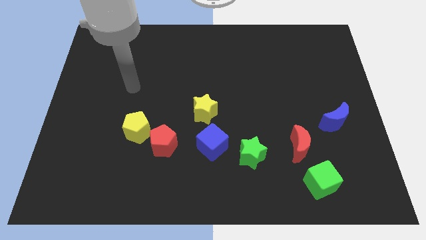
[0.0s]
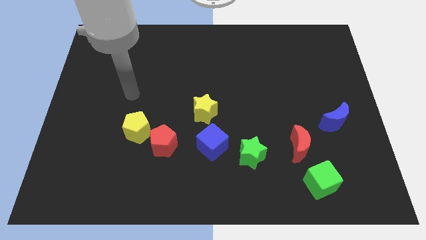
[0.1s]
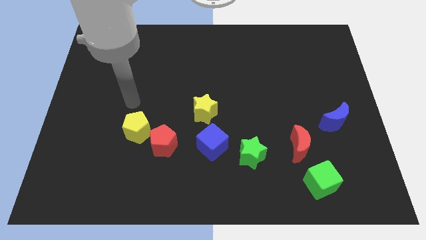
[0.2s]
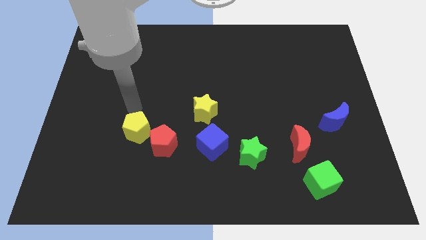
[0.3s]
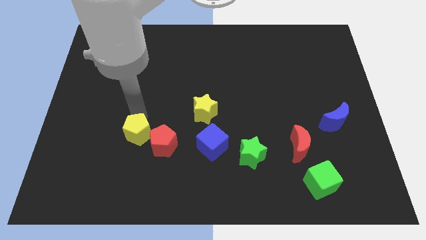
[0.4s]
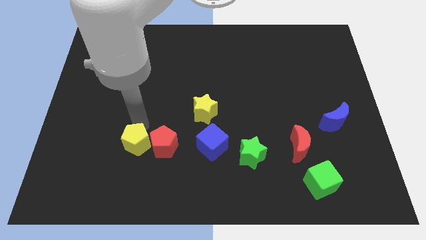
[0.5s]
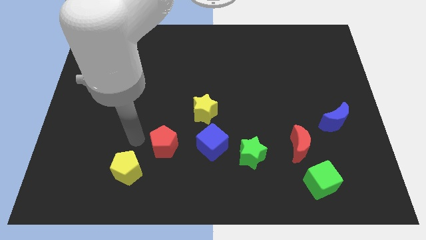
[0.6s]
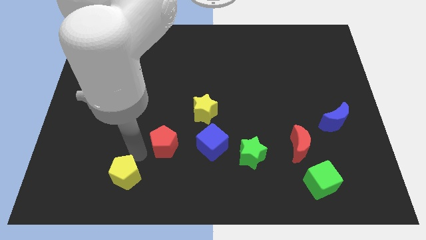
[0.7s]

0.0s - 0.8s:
separate the red pentagon from the yellow pentagon

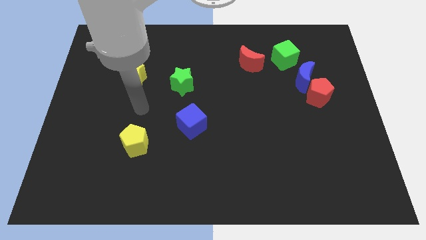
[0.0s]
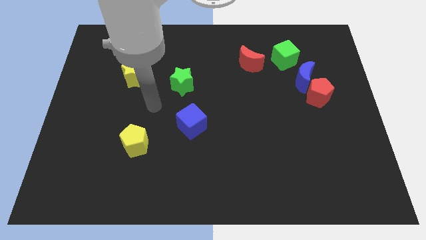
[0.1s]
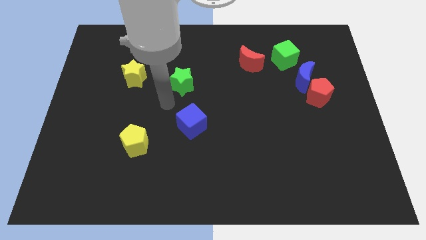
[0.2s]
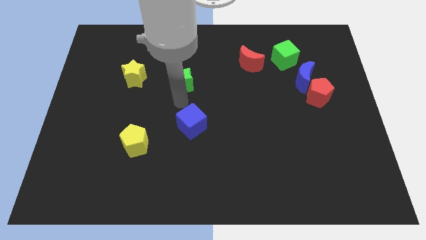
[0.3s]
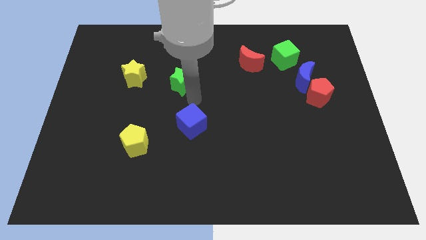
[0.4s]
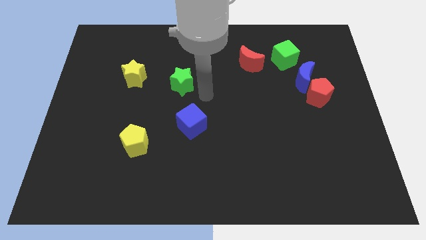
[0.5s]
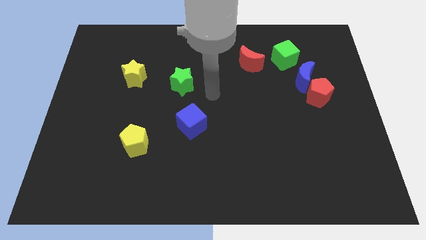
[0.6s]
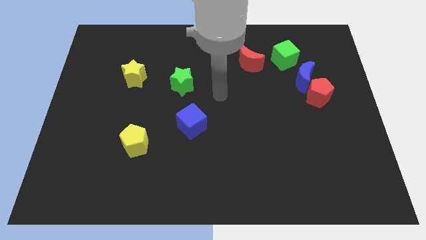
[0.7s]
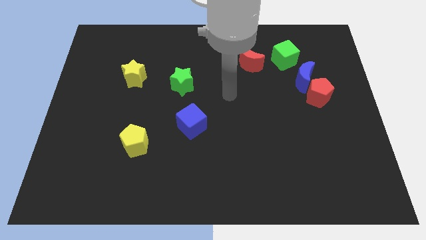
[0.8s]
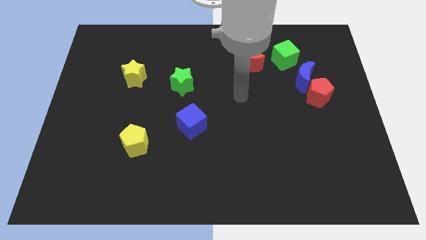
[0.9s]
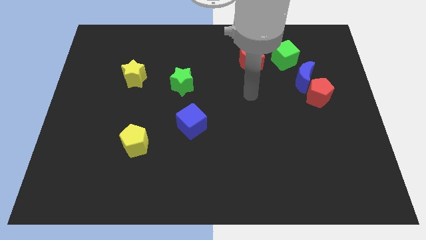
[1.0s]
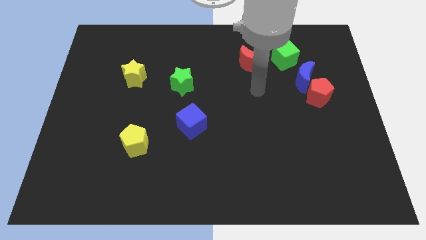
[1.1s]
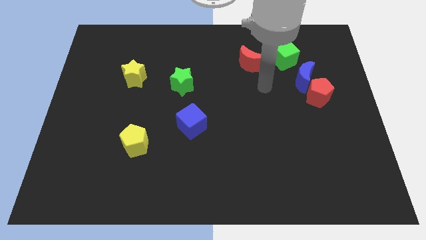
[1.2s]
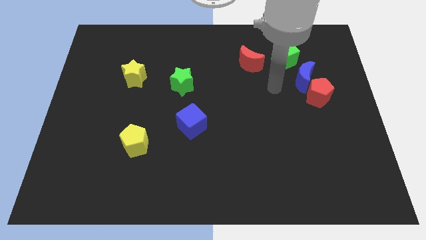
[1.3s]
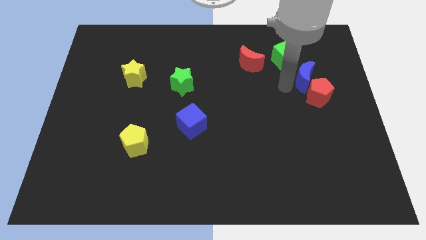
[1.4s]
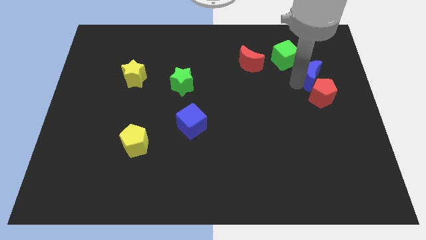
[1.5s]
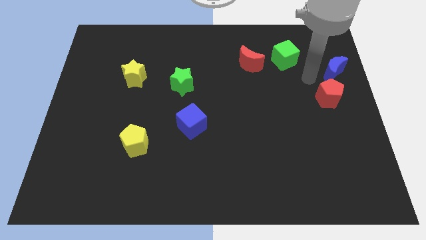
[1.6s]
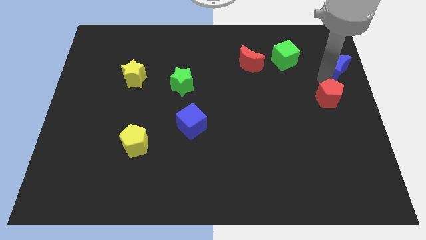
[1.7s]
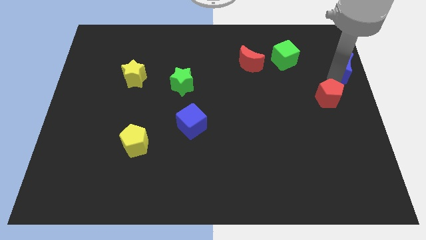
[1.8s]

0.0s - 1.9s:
pull the red pentagon apart from the blue moon

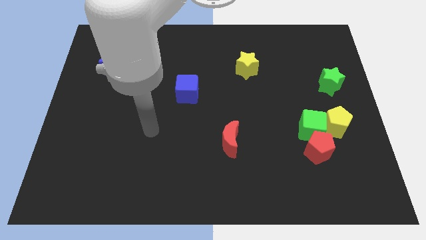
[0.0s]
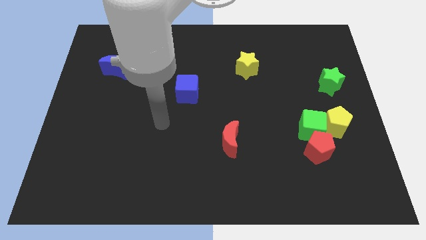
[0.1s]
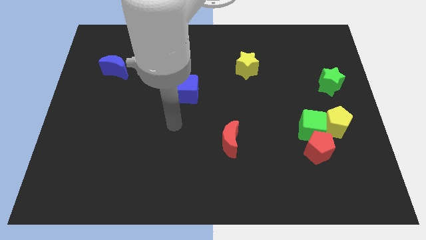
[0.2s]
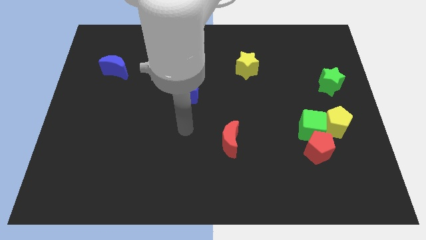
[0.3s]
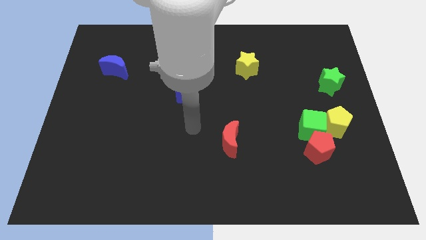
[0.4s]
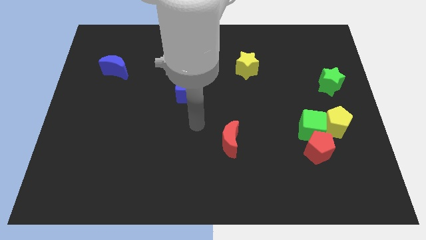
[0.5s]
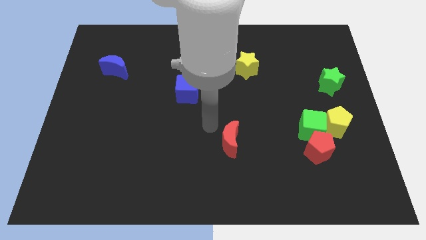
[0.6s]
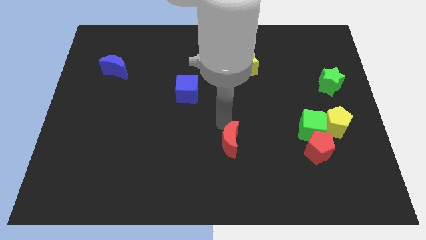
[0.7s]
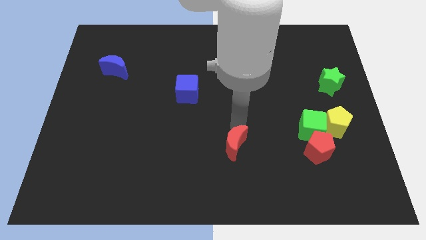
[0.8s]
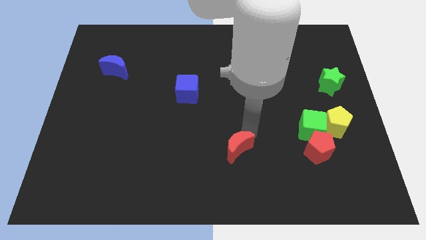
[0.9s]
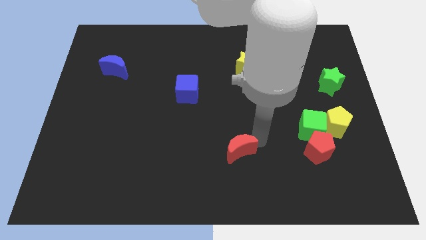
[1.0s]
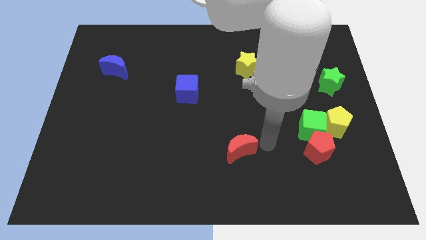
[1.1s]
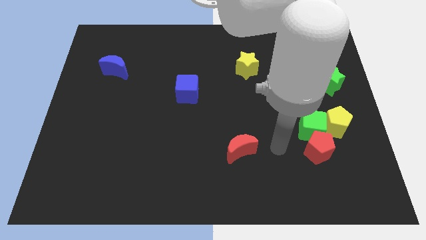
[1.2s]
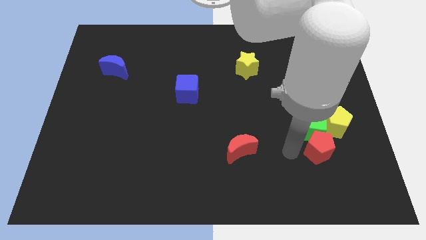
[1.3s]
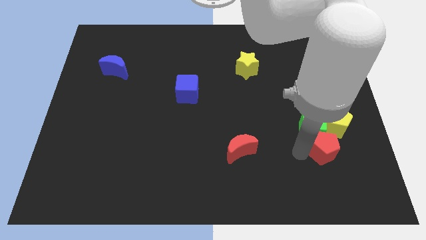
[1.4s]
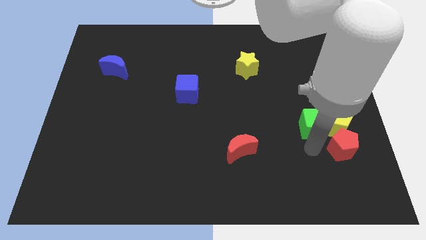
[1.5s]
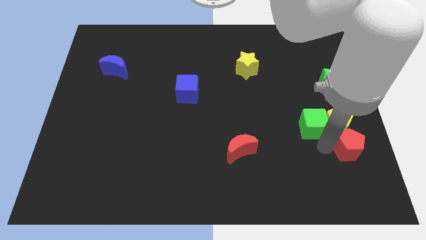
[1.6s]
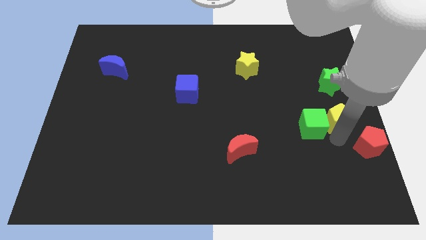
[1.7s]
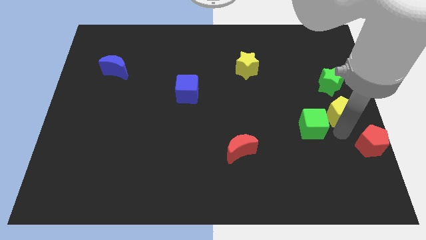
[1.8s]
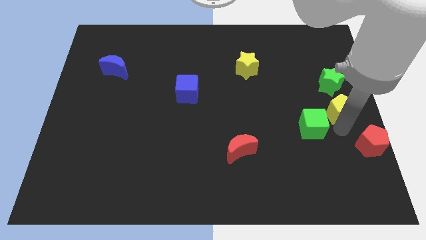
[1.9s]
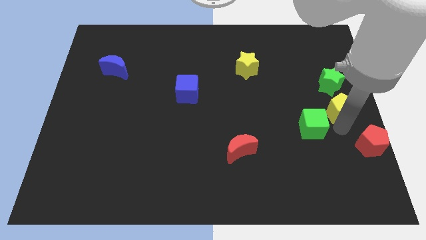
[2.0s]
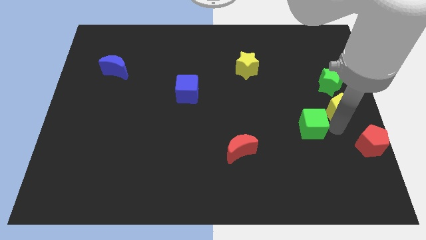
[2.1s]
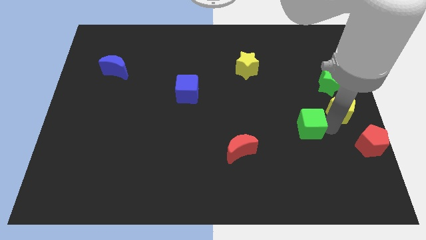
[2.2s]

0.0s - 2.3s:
separate the green cube from the red pentagon and yellow pentagon

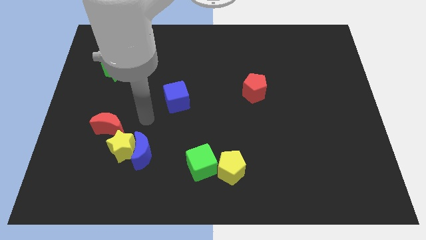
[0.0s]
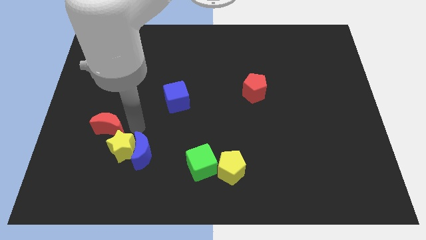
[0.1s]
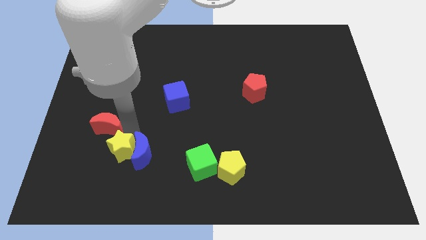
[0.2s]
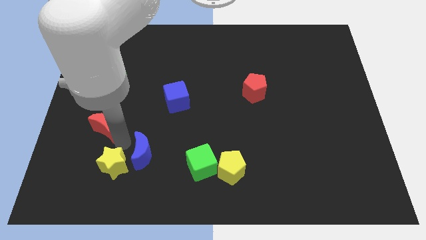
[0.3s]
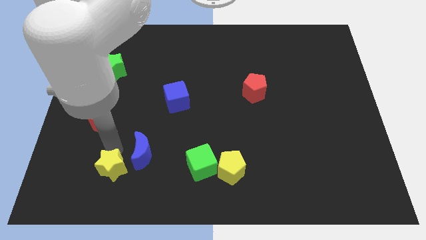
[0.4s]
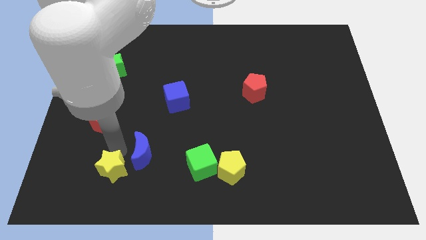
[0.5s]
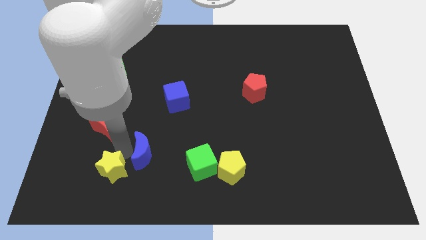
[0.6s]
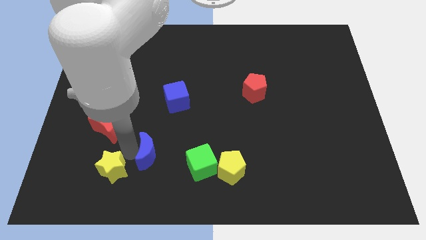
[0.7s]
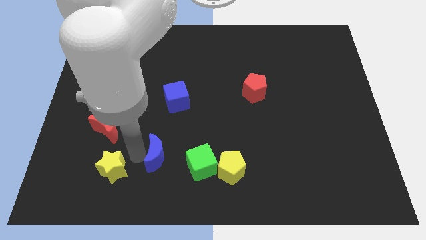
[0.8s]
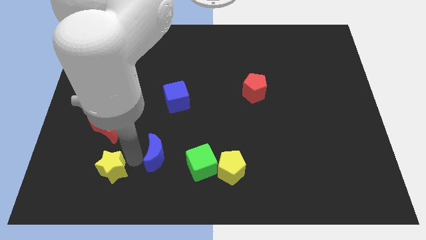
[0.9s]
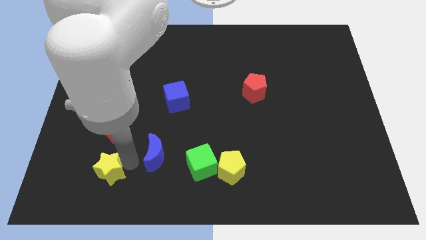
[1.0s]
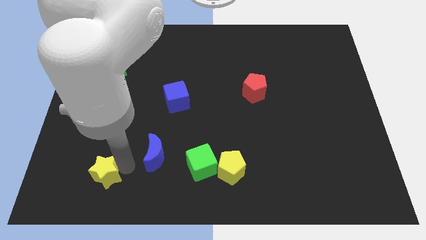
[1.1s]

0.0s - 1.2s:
pull the blue moon apart from the yellow star

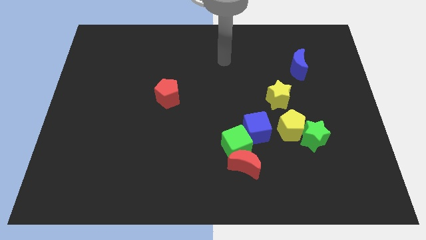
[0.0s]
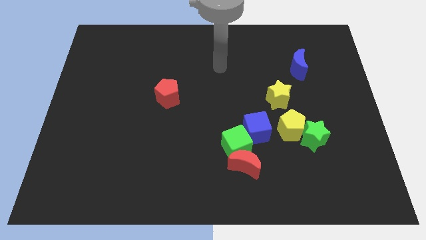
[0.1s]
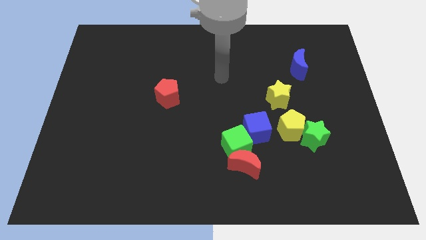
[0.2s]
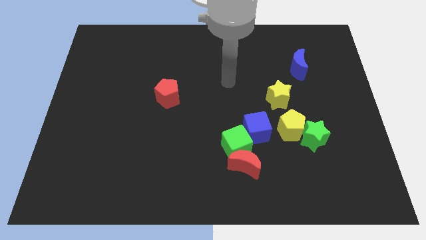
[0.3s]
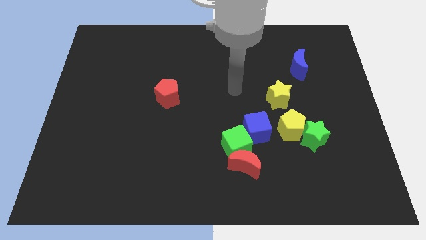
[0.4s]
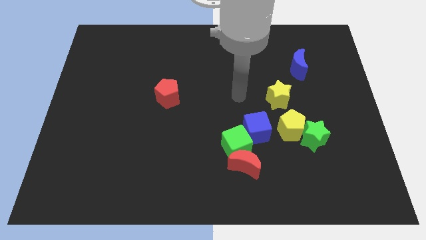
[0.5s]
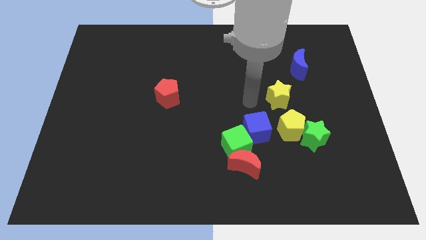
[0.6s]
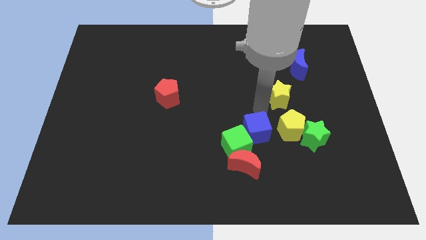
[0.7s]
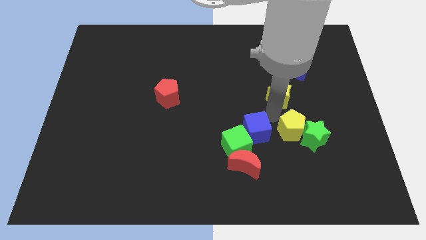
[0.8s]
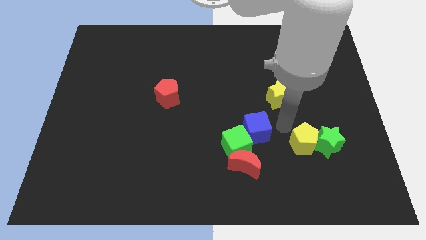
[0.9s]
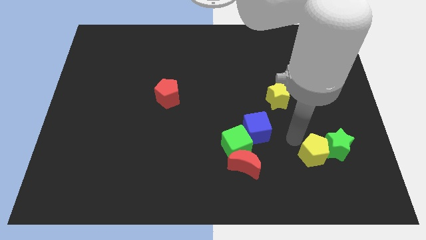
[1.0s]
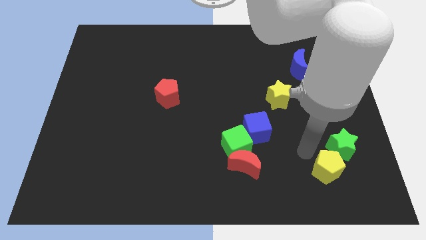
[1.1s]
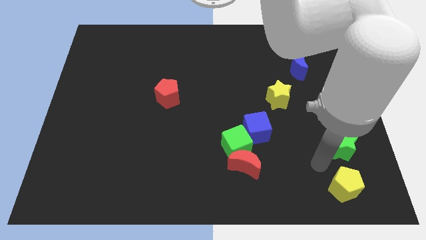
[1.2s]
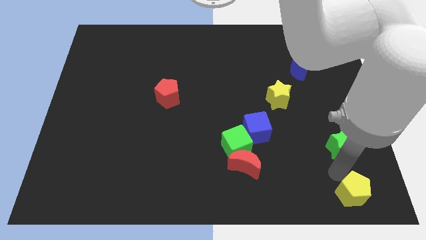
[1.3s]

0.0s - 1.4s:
pull the green star apart from the yellow pentagon

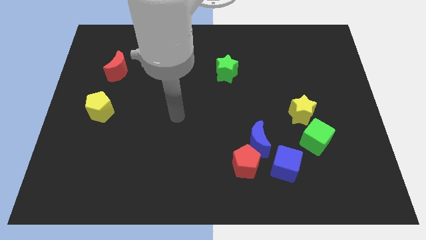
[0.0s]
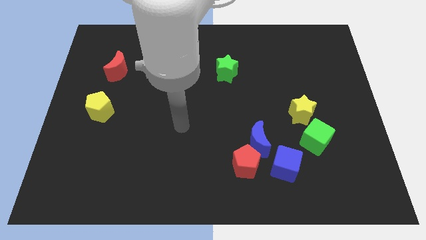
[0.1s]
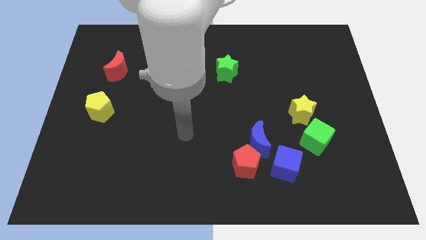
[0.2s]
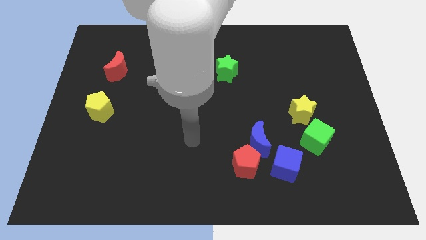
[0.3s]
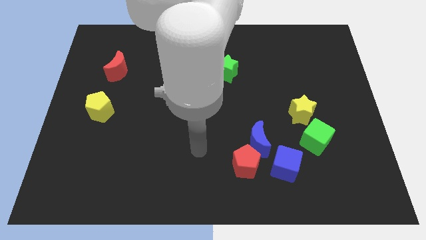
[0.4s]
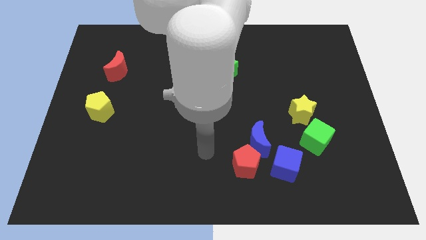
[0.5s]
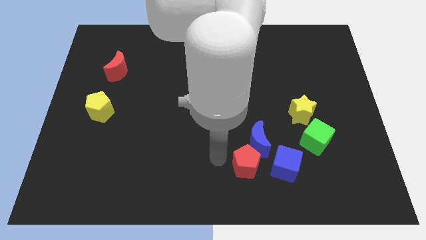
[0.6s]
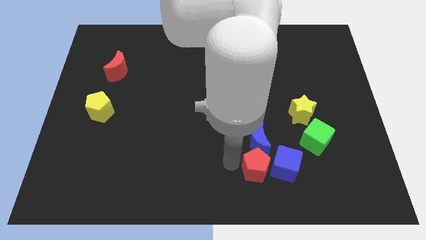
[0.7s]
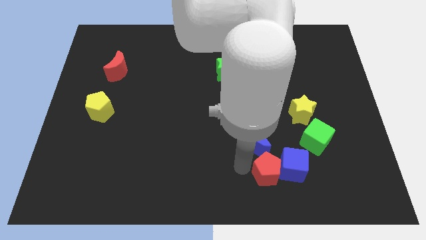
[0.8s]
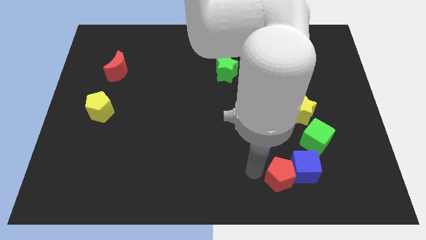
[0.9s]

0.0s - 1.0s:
move the blue moon away from the red pentagon and blue cube

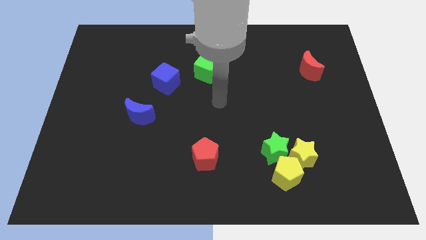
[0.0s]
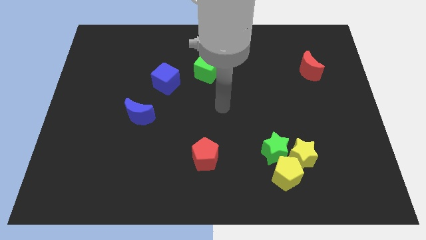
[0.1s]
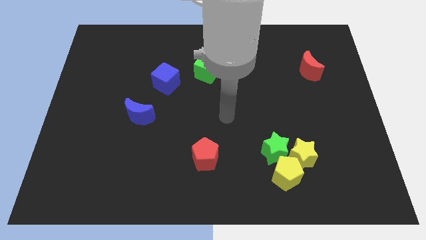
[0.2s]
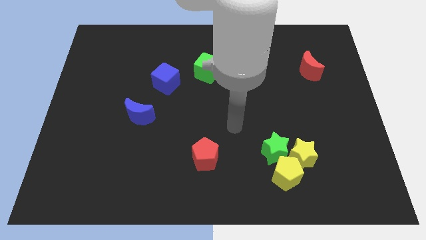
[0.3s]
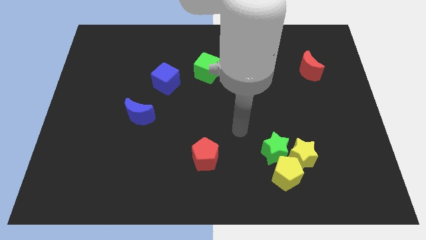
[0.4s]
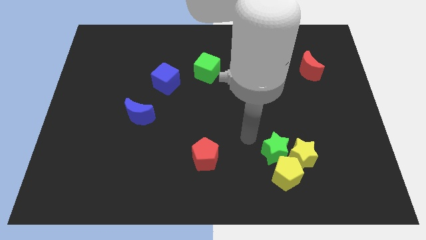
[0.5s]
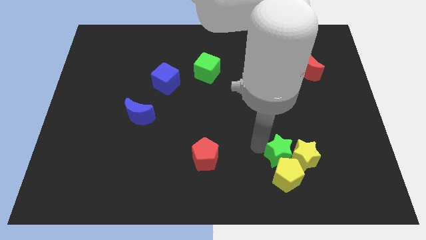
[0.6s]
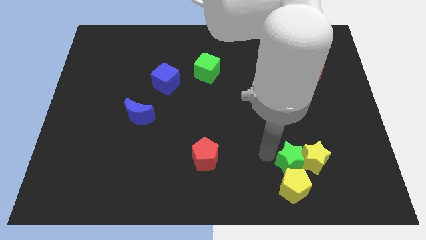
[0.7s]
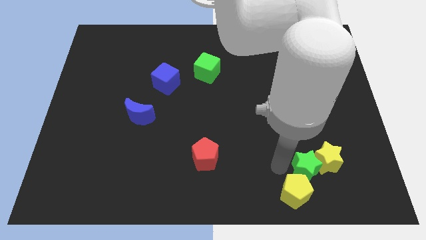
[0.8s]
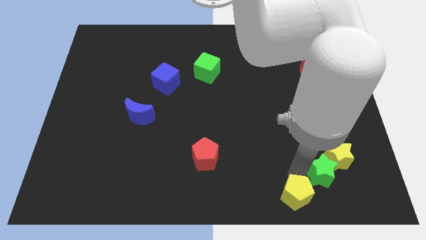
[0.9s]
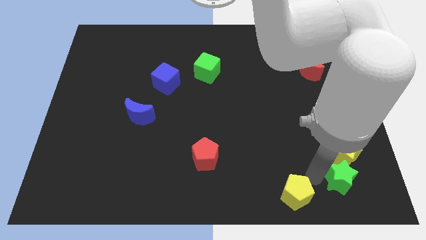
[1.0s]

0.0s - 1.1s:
move the yellow star away from the yellow pentagon and green star
